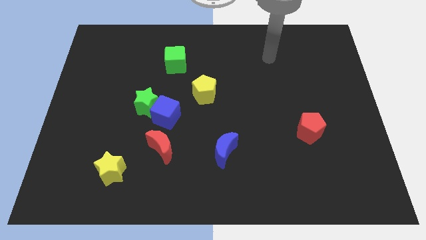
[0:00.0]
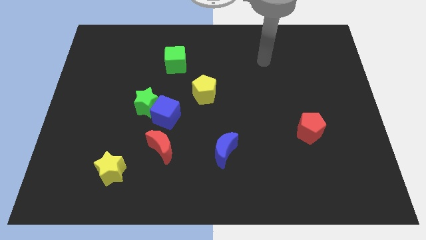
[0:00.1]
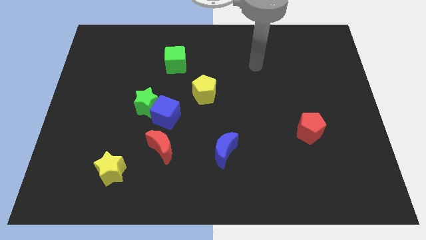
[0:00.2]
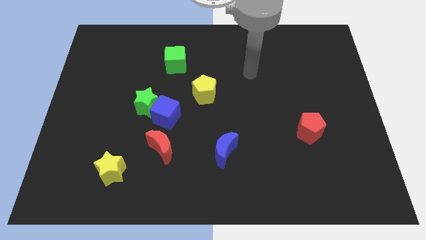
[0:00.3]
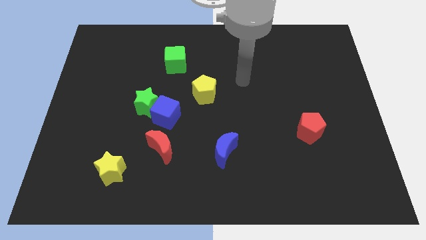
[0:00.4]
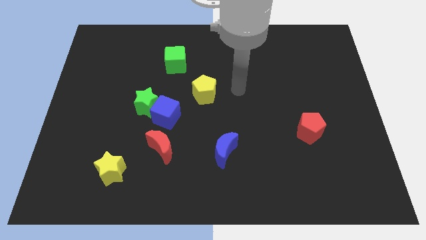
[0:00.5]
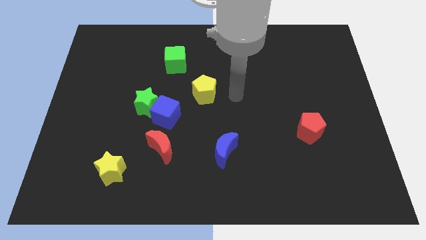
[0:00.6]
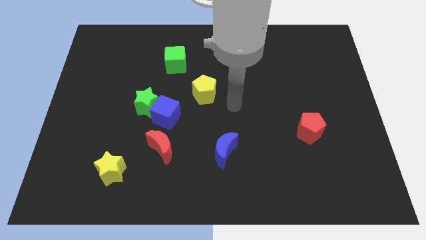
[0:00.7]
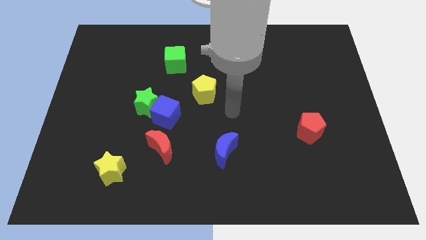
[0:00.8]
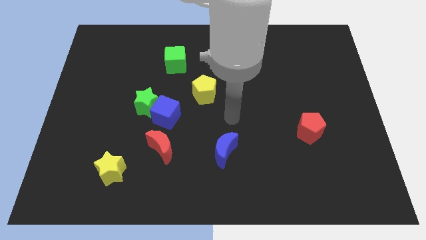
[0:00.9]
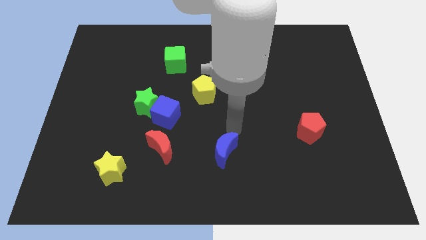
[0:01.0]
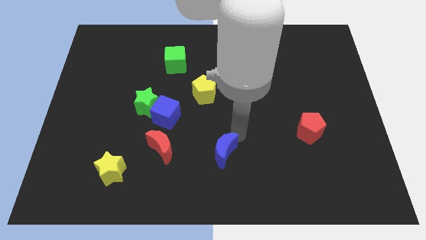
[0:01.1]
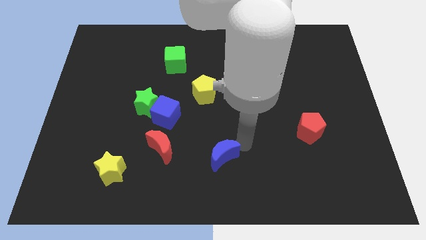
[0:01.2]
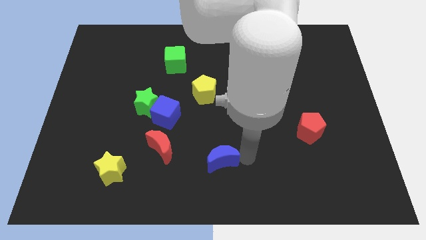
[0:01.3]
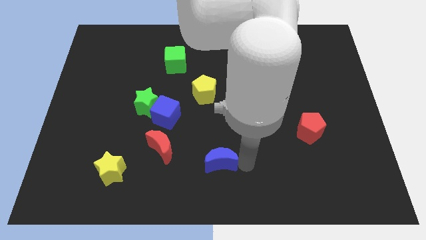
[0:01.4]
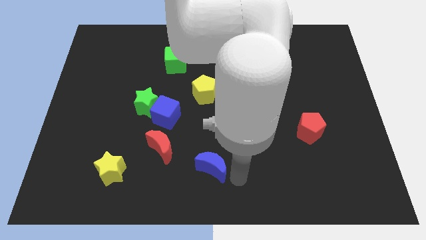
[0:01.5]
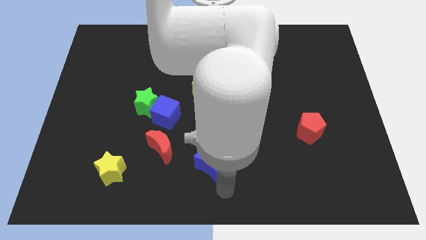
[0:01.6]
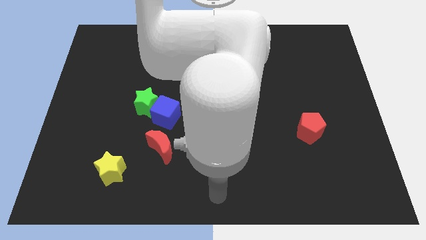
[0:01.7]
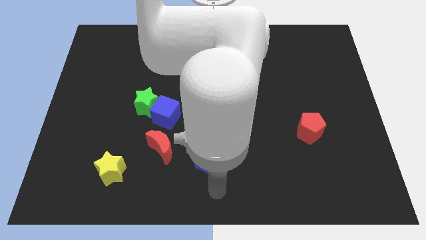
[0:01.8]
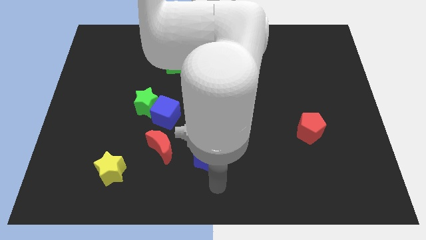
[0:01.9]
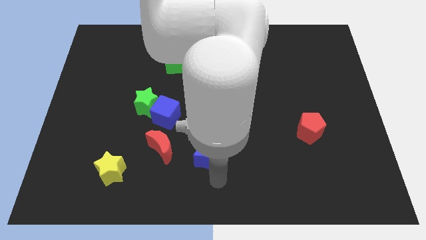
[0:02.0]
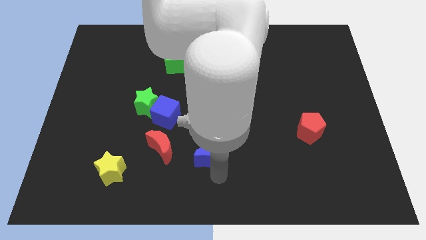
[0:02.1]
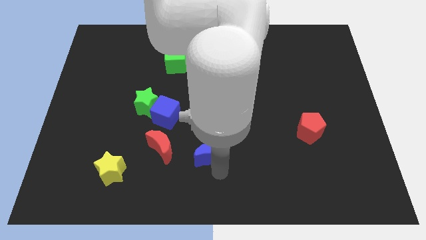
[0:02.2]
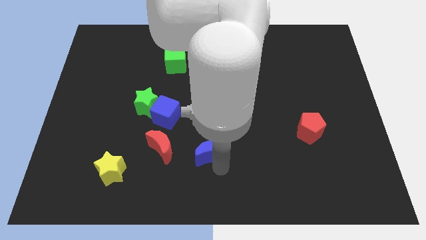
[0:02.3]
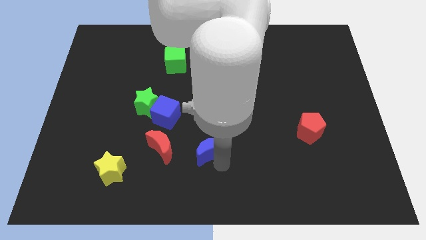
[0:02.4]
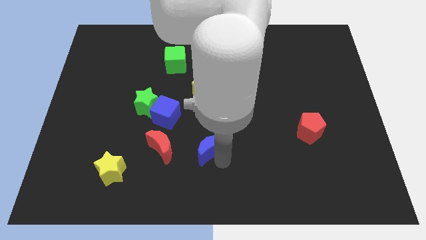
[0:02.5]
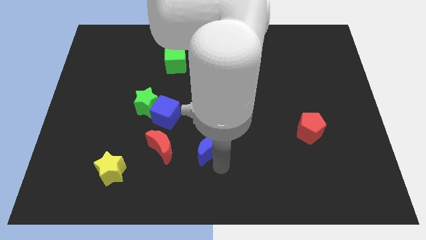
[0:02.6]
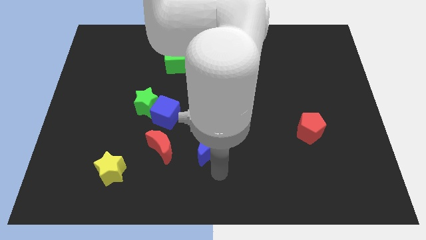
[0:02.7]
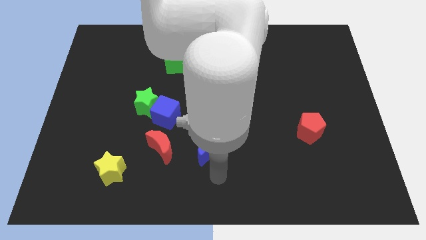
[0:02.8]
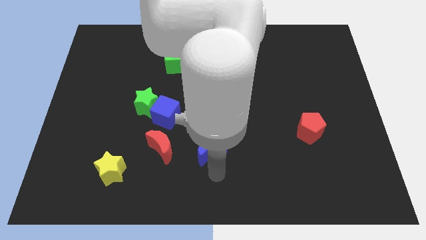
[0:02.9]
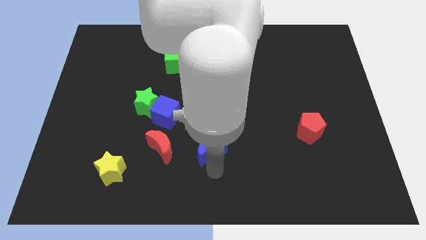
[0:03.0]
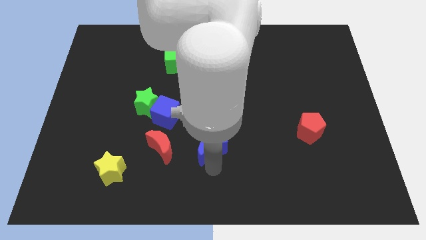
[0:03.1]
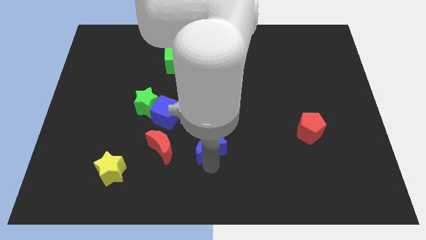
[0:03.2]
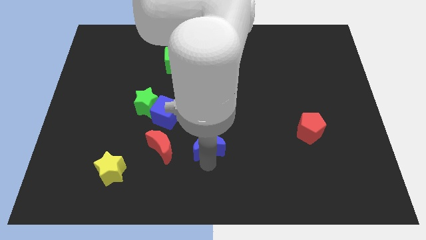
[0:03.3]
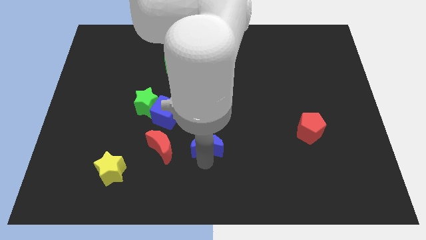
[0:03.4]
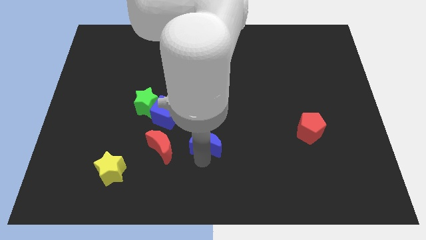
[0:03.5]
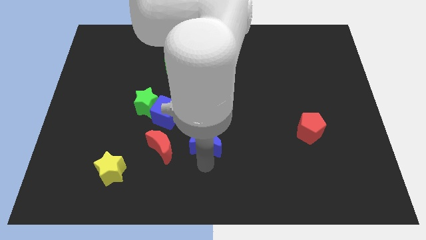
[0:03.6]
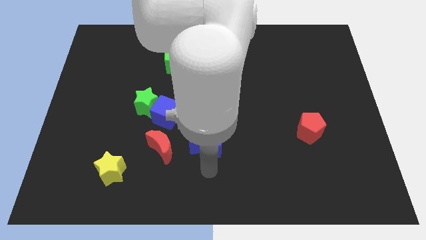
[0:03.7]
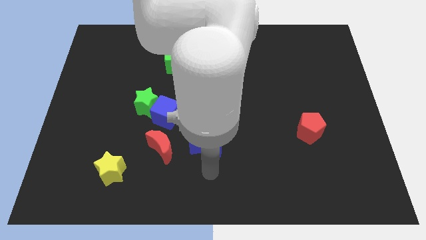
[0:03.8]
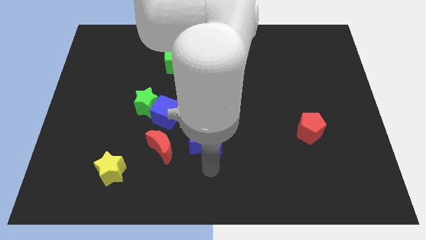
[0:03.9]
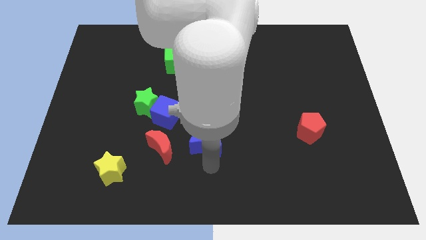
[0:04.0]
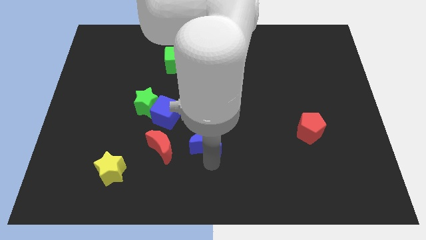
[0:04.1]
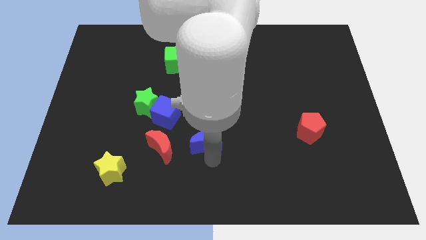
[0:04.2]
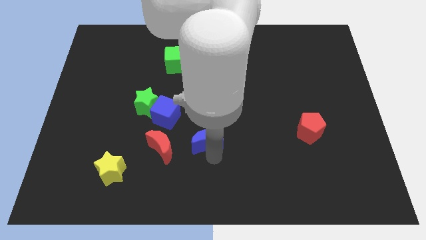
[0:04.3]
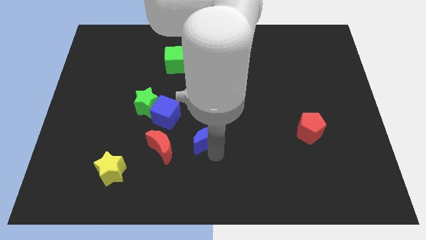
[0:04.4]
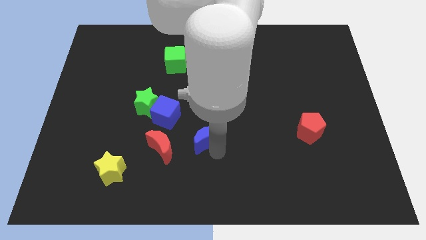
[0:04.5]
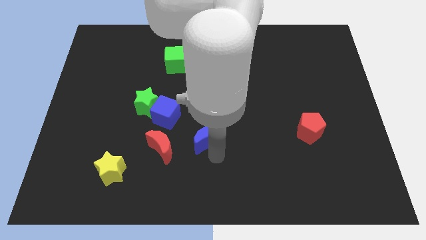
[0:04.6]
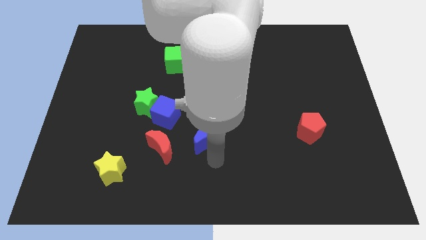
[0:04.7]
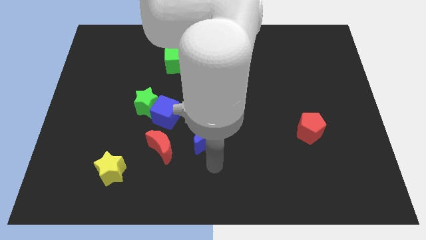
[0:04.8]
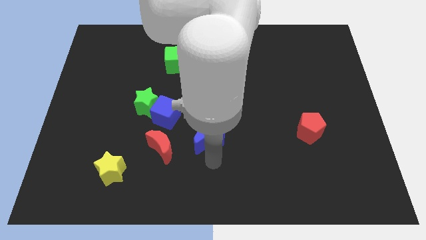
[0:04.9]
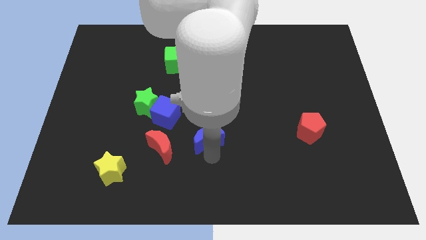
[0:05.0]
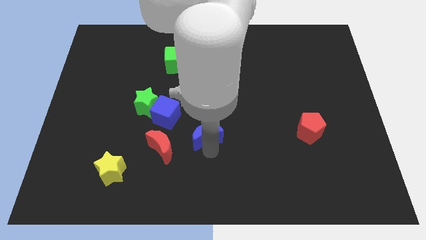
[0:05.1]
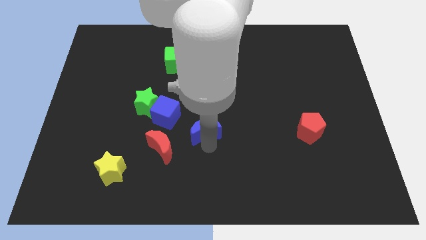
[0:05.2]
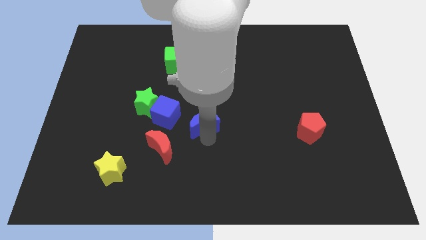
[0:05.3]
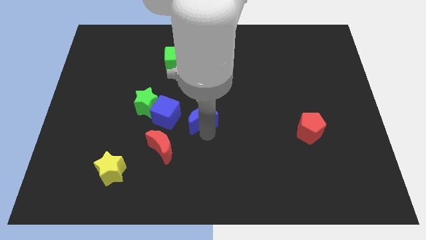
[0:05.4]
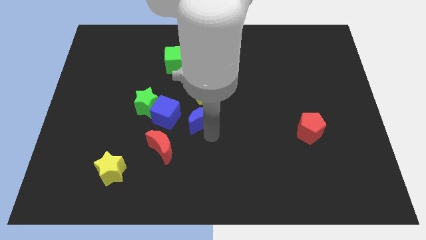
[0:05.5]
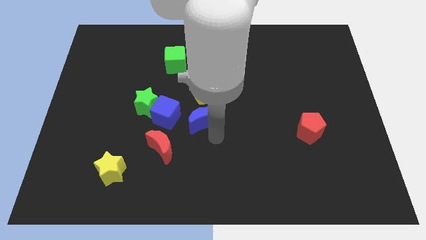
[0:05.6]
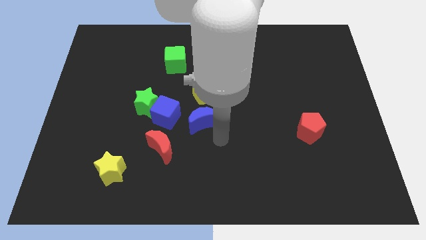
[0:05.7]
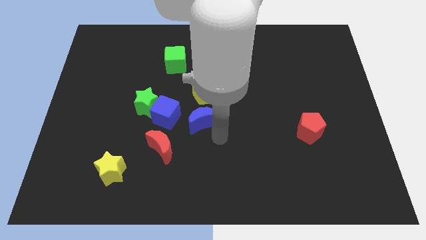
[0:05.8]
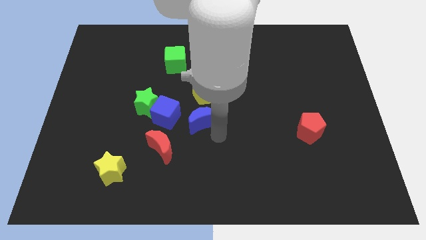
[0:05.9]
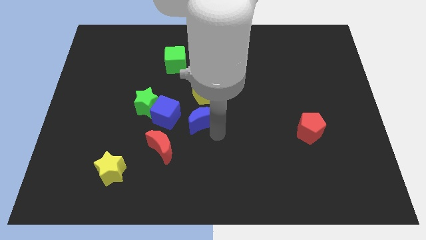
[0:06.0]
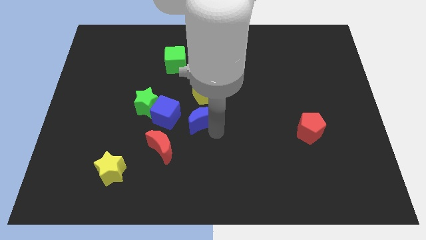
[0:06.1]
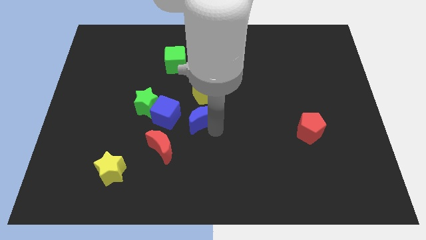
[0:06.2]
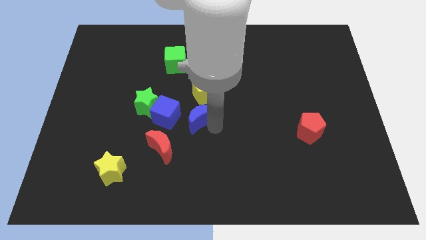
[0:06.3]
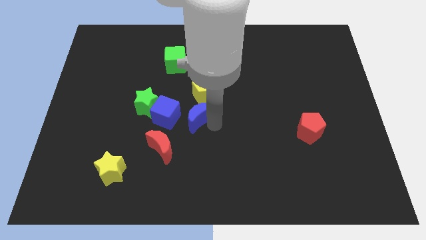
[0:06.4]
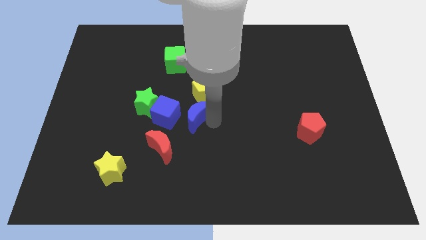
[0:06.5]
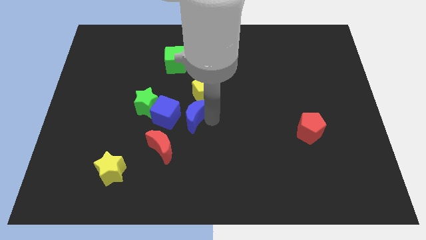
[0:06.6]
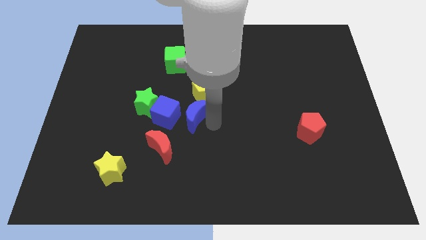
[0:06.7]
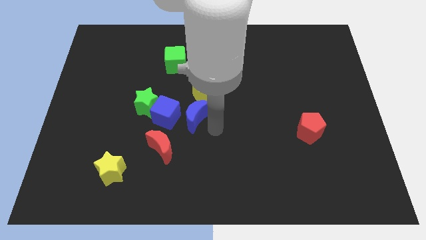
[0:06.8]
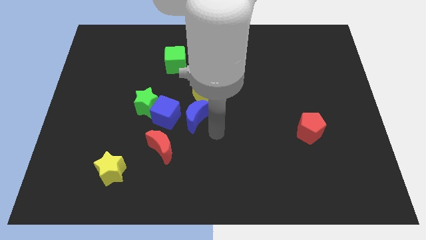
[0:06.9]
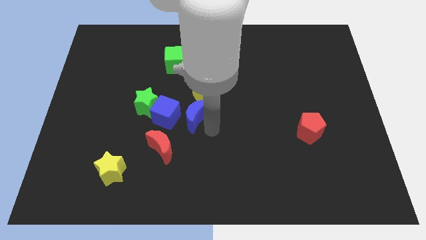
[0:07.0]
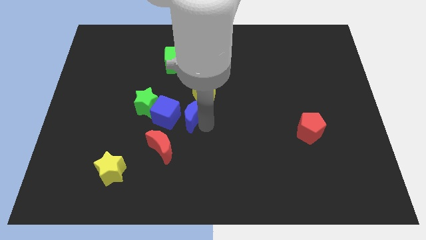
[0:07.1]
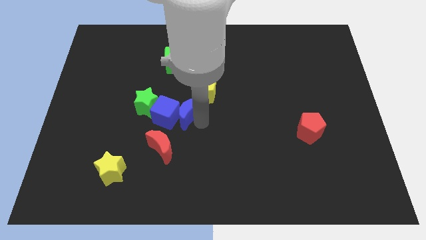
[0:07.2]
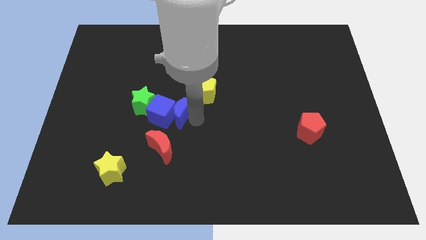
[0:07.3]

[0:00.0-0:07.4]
slide the blue moon to the top side of the red moon
